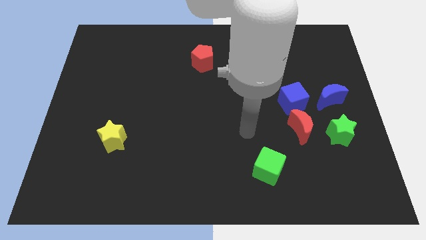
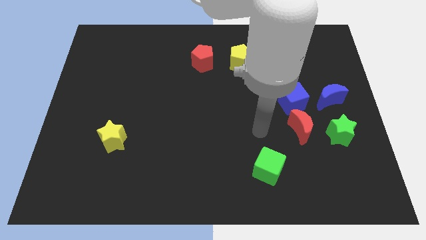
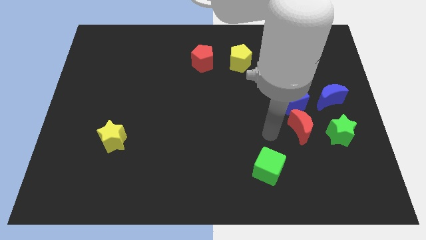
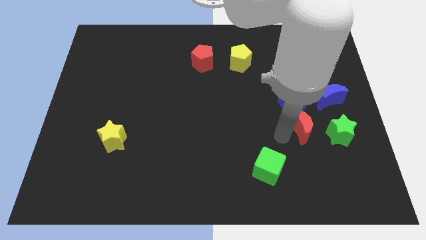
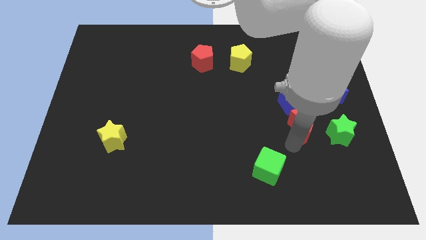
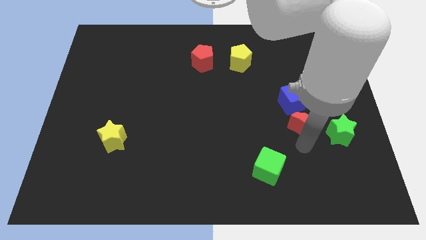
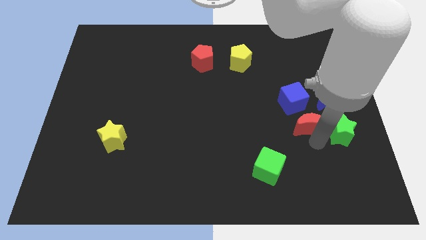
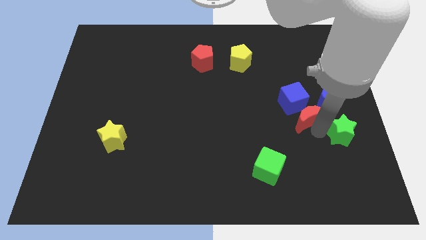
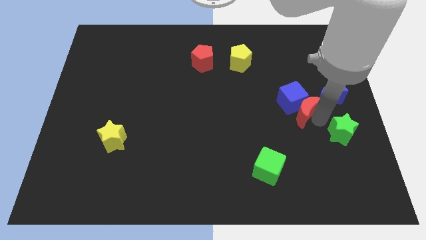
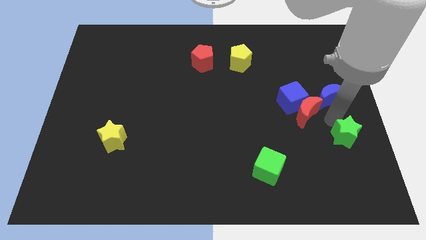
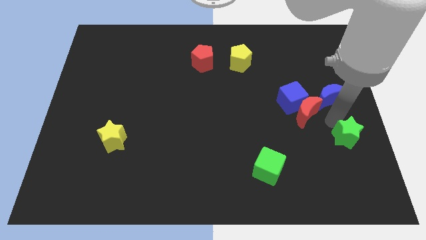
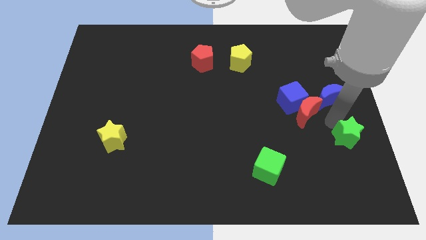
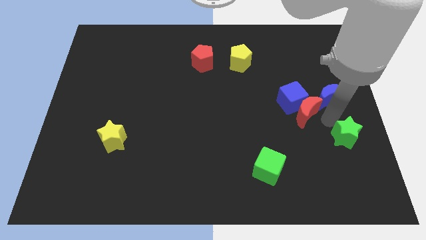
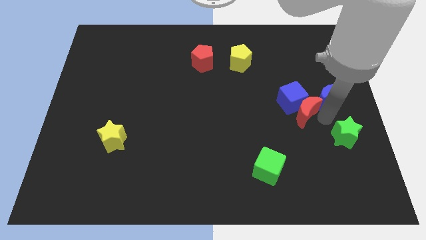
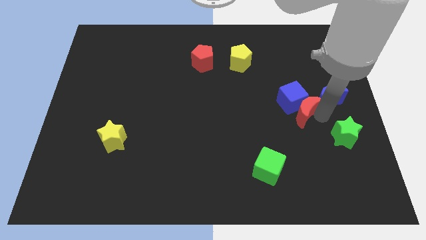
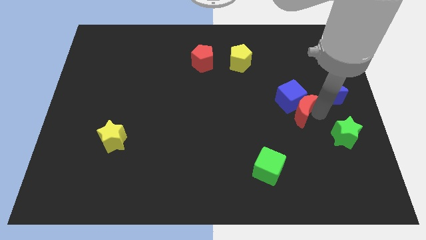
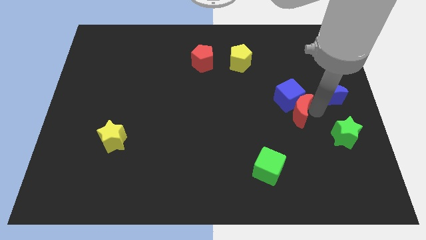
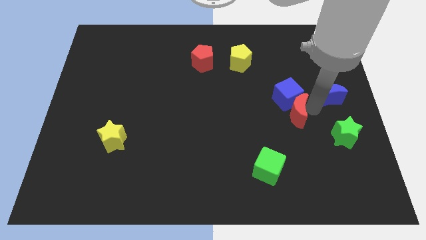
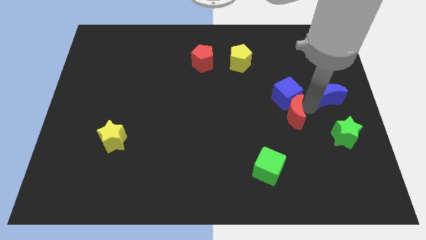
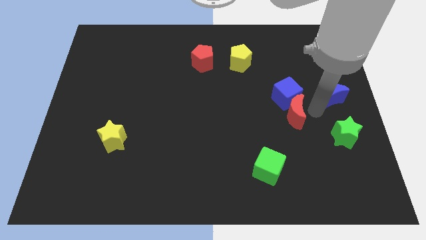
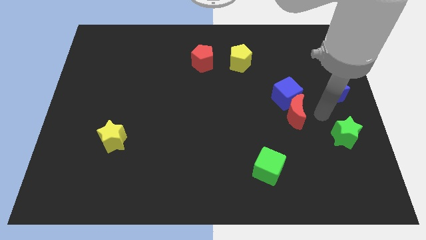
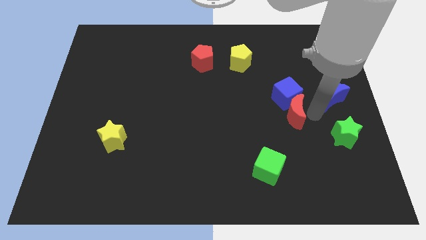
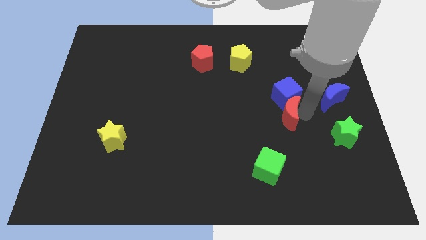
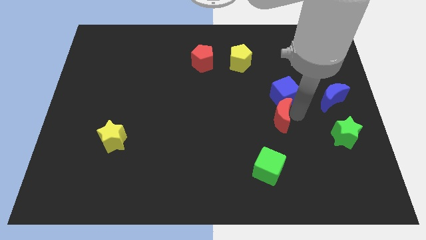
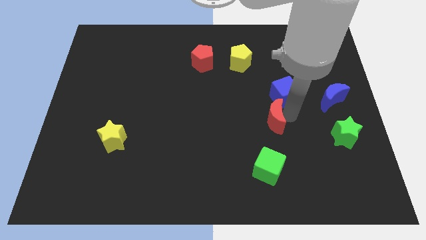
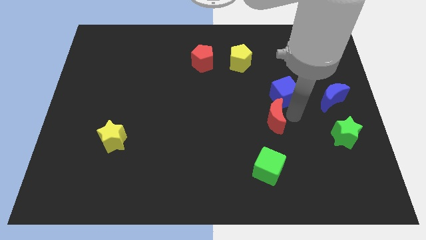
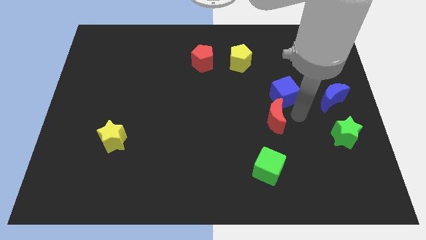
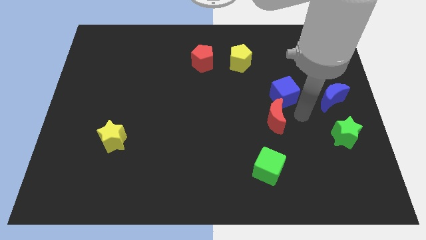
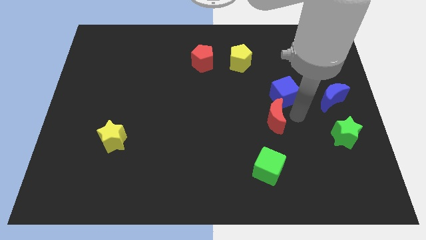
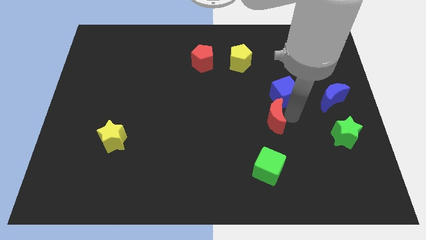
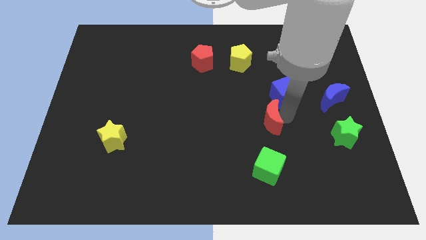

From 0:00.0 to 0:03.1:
move the red moon away from the blue cube and green star

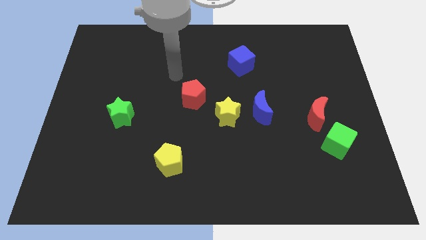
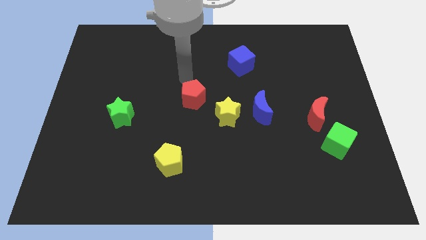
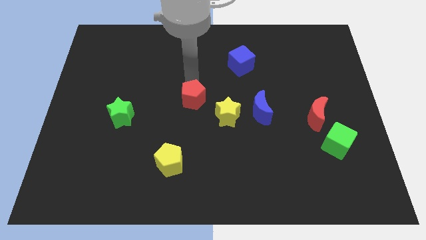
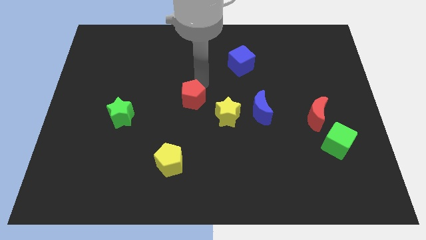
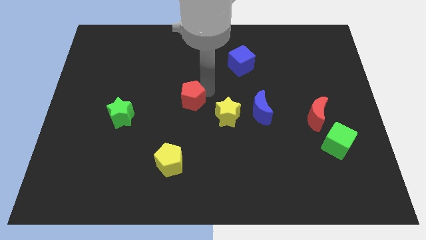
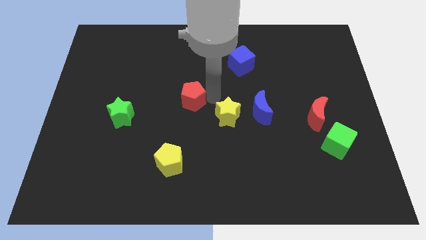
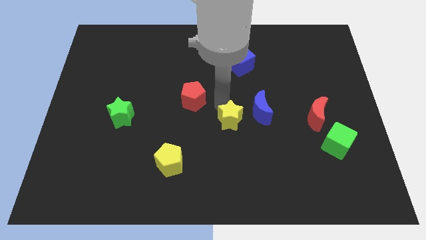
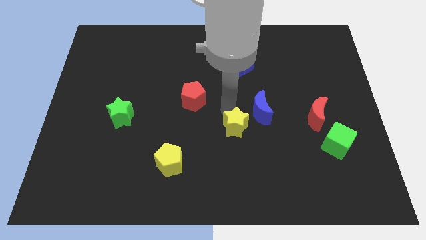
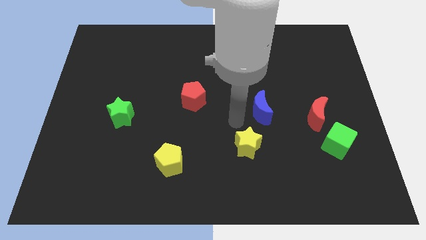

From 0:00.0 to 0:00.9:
move the blue moon away from the yellow star

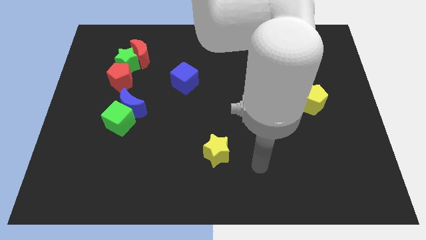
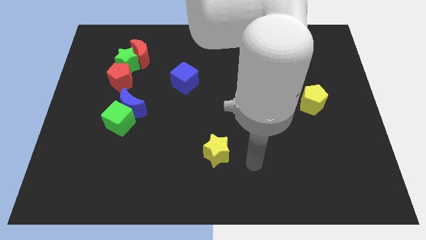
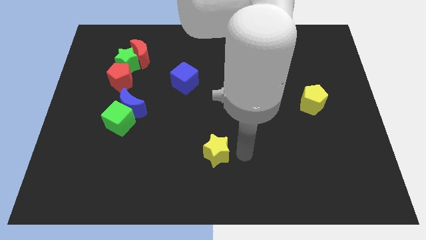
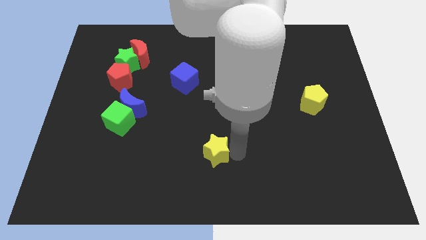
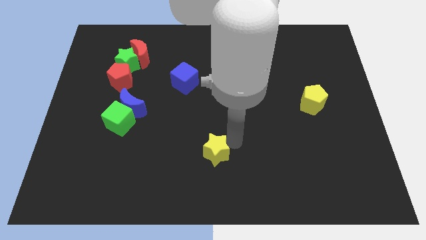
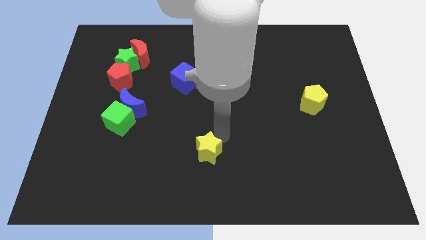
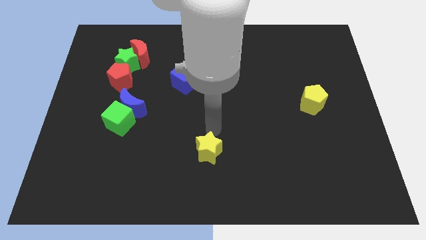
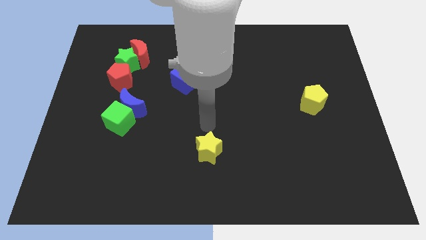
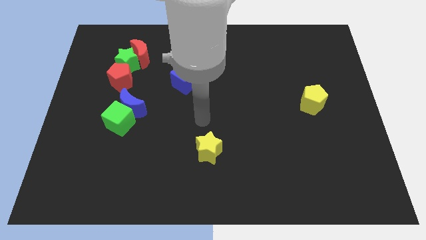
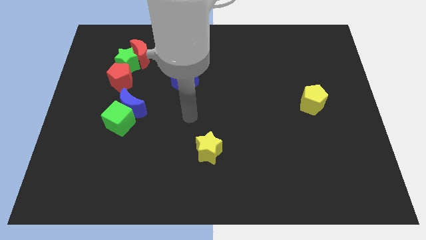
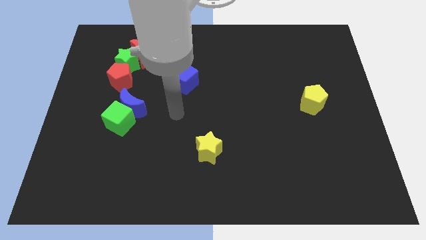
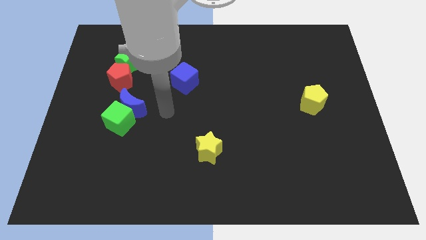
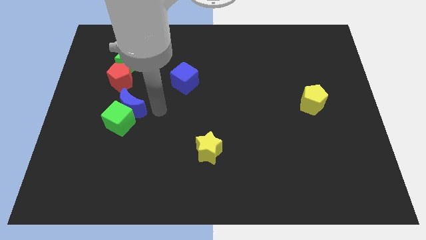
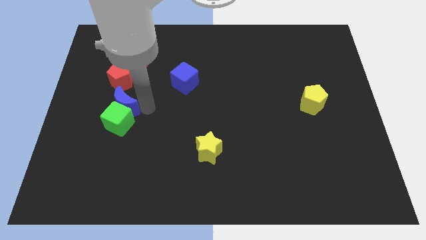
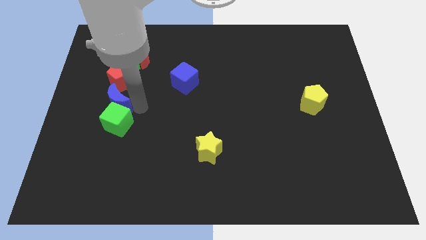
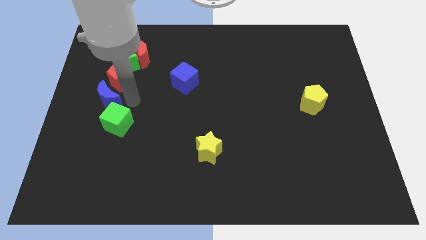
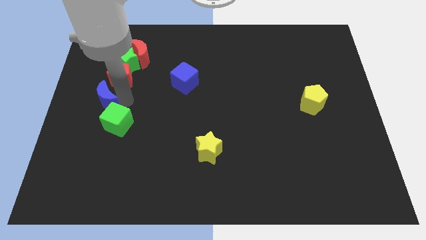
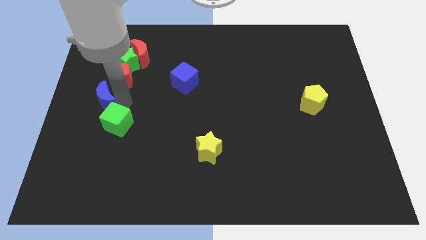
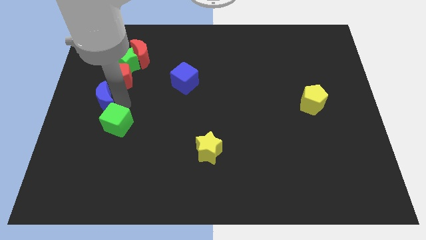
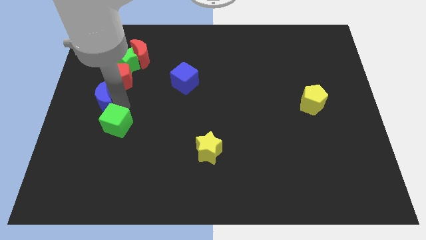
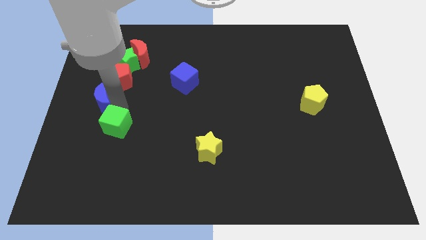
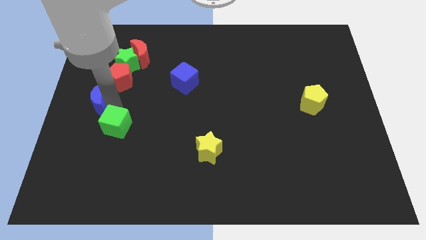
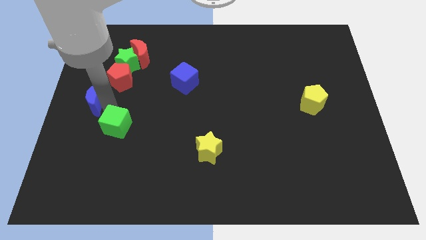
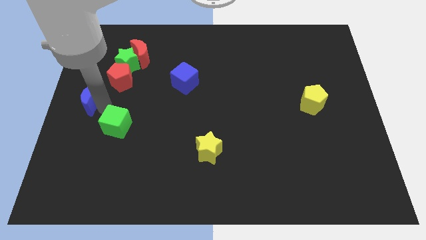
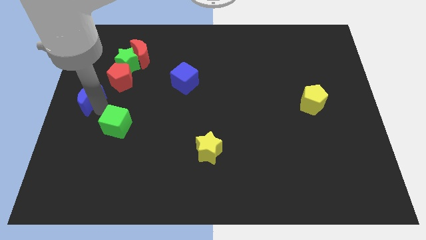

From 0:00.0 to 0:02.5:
pull the green cube apart from the blue moon

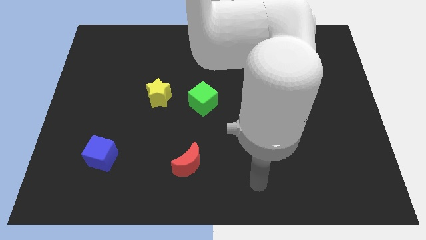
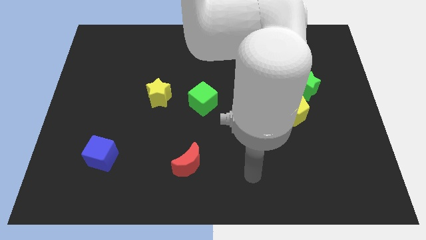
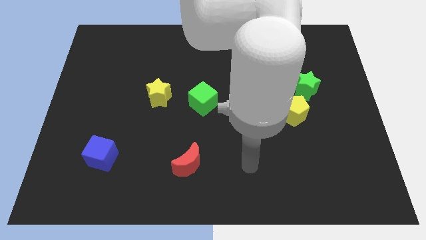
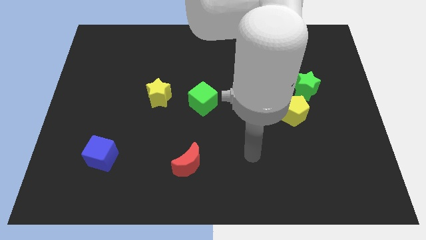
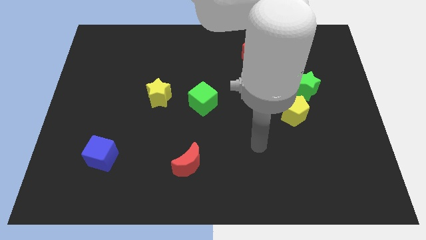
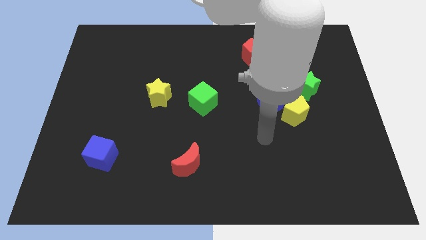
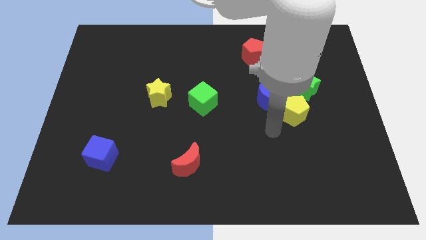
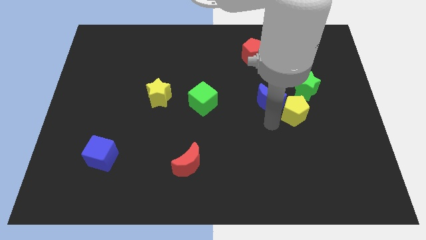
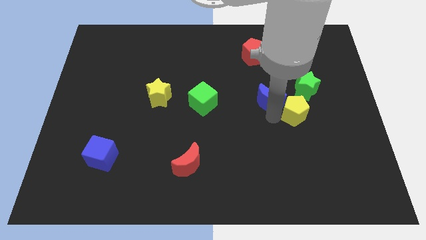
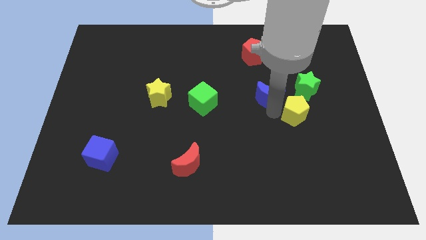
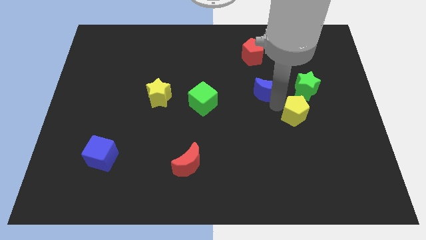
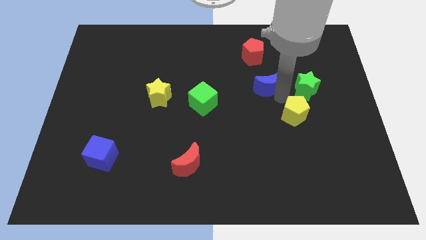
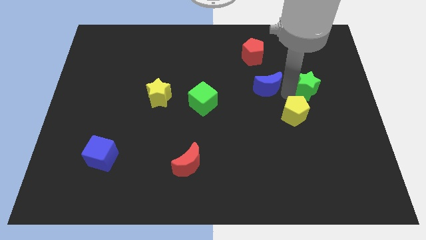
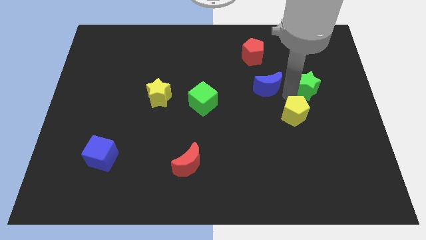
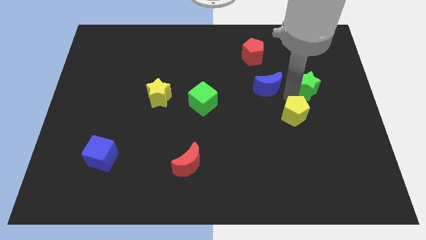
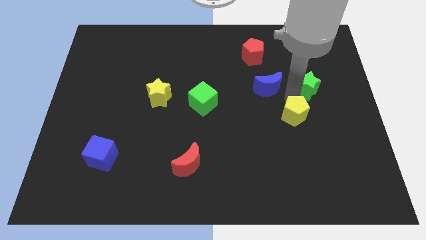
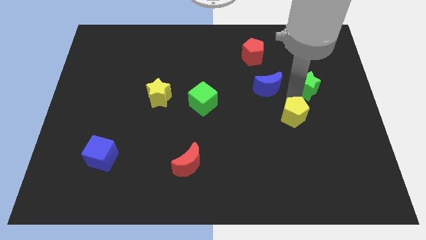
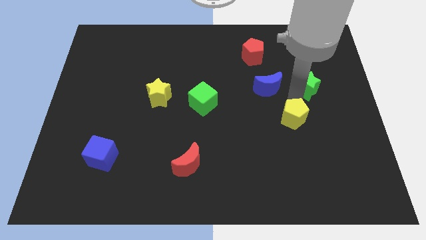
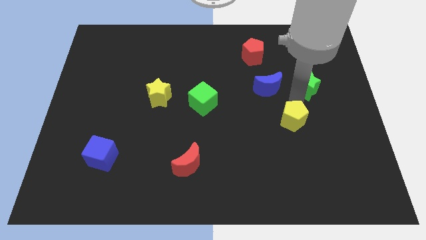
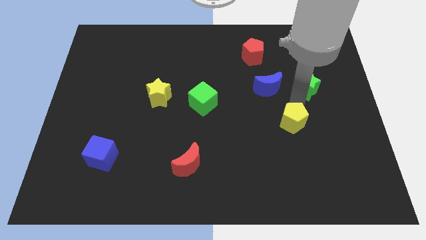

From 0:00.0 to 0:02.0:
pull the yellow pentagon apart from the blue moon and green star

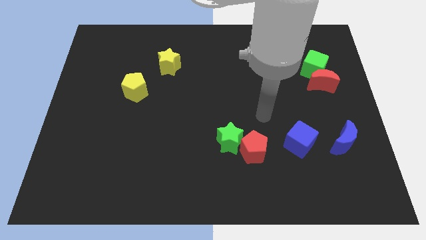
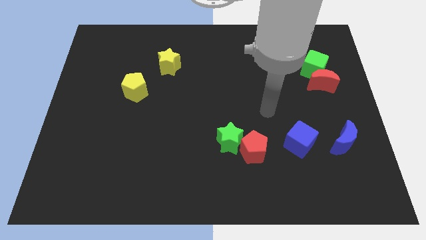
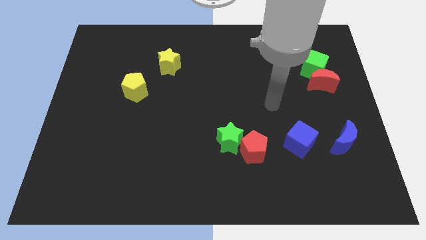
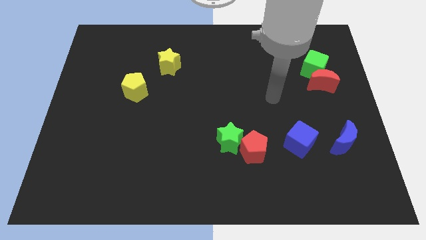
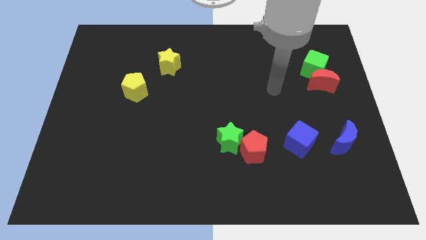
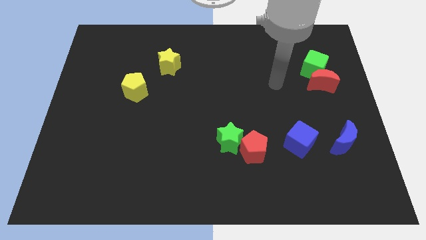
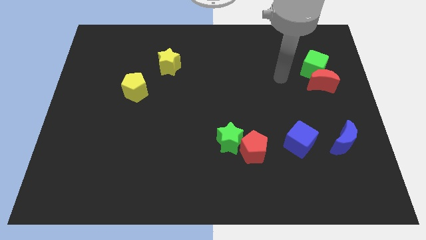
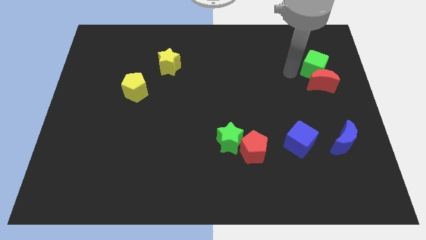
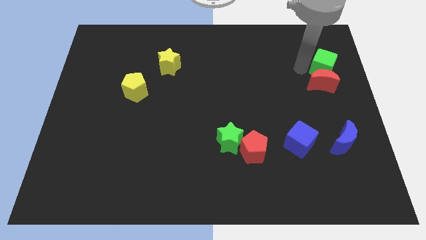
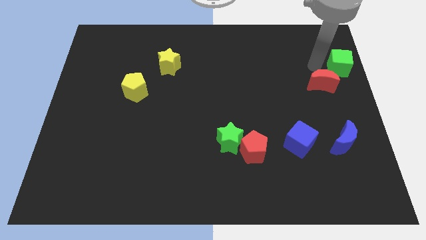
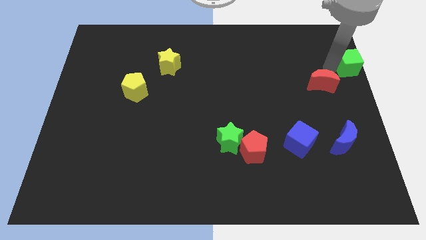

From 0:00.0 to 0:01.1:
move the red moon away from the green cube
